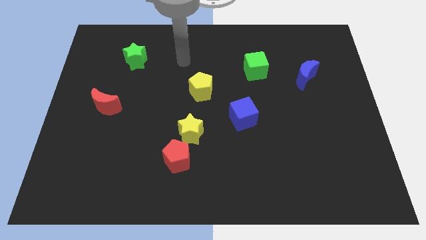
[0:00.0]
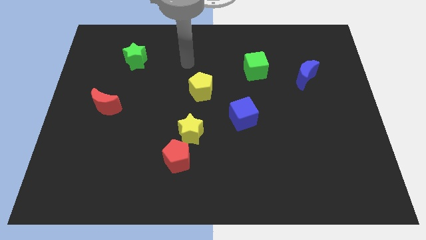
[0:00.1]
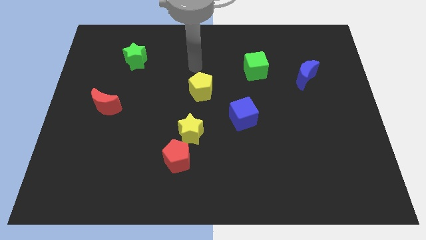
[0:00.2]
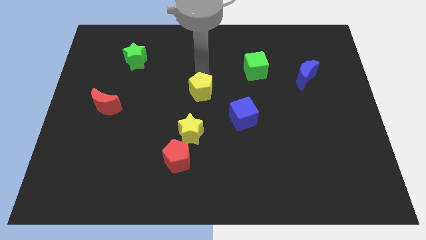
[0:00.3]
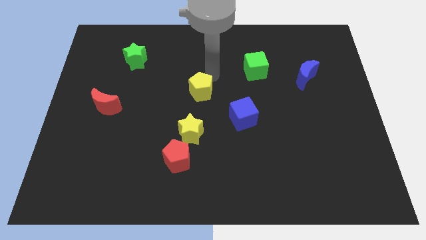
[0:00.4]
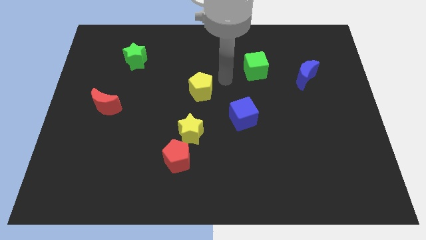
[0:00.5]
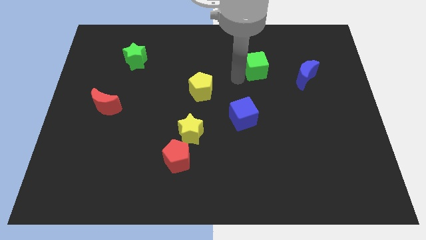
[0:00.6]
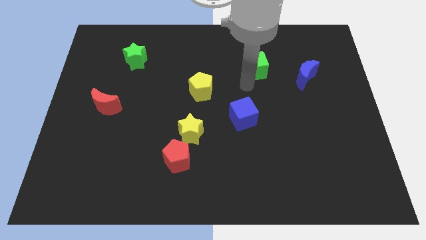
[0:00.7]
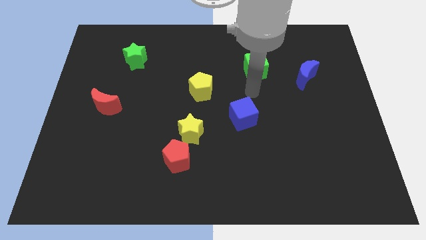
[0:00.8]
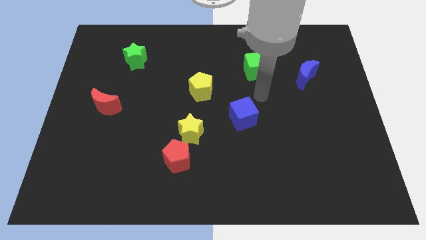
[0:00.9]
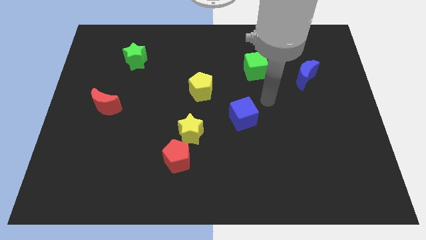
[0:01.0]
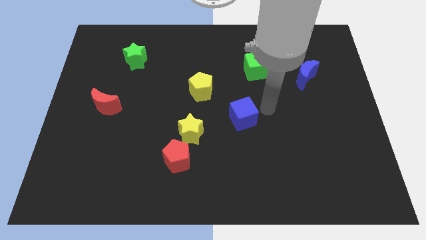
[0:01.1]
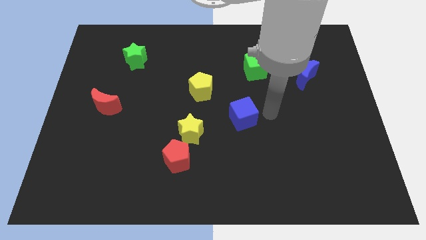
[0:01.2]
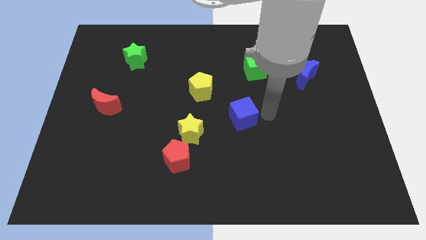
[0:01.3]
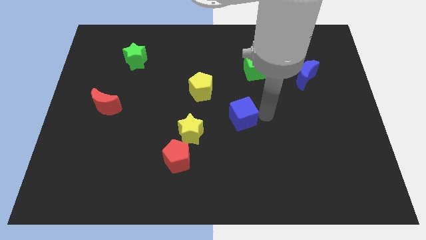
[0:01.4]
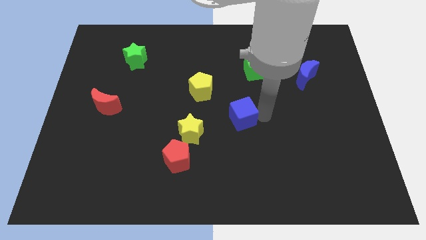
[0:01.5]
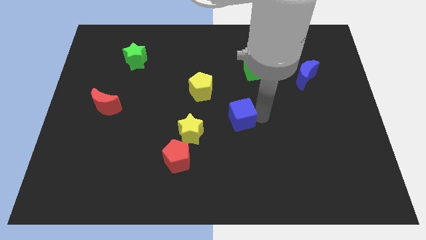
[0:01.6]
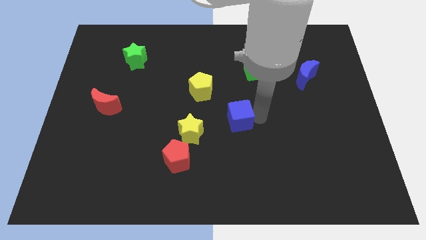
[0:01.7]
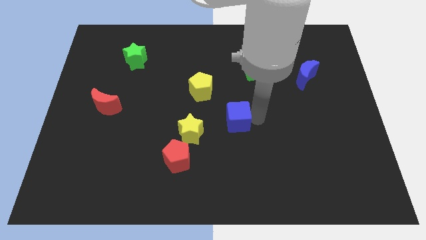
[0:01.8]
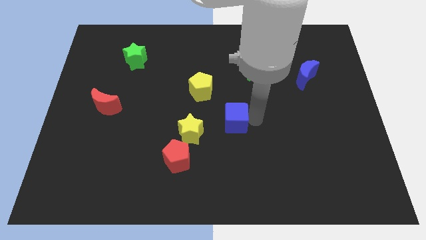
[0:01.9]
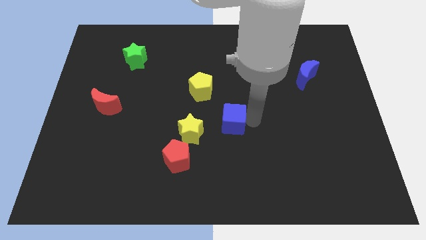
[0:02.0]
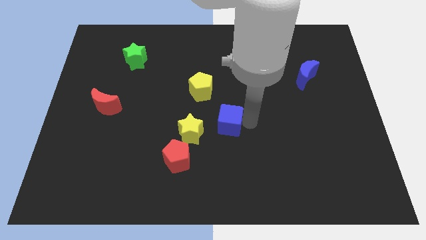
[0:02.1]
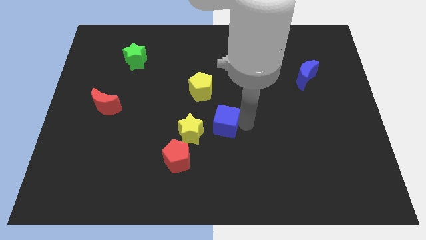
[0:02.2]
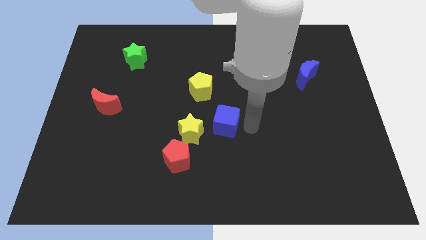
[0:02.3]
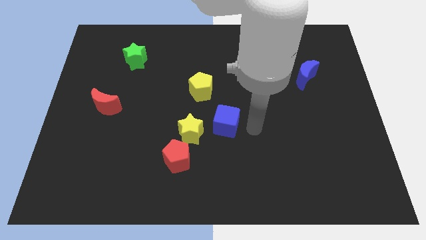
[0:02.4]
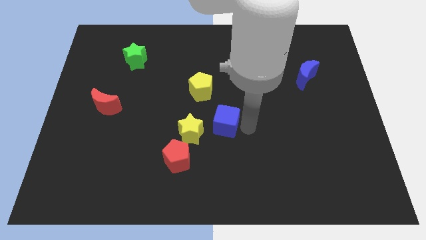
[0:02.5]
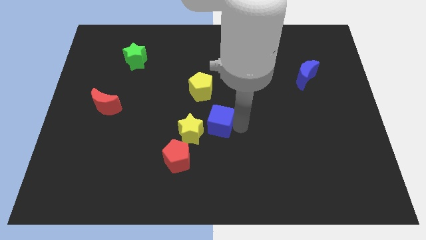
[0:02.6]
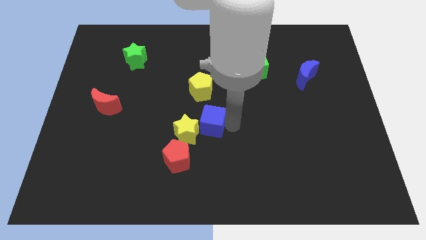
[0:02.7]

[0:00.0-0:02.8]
push the blue cube left slightly

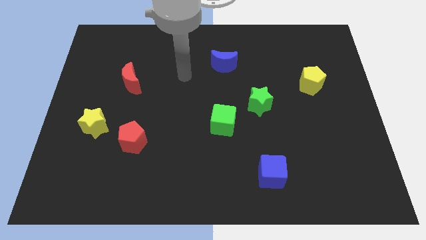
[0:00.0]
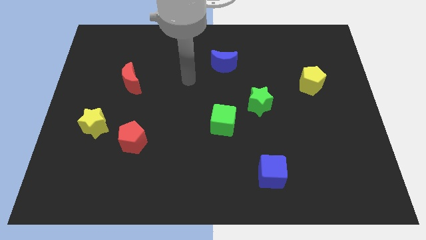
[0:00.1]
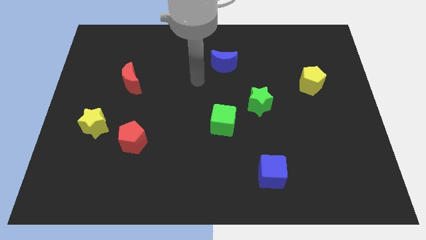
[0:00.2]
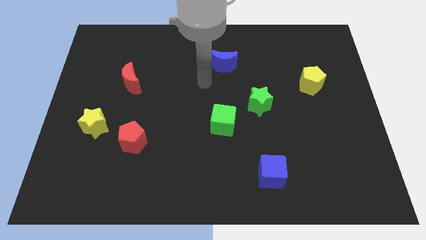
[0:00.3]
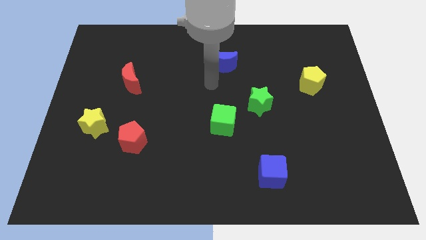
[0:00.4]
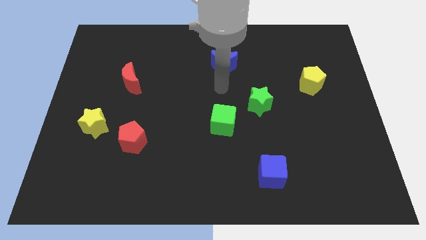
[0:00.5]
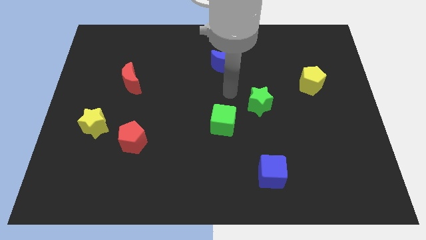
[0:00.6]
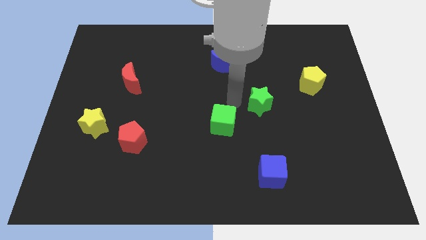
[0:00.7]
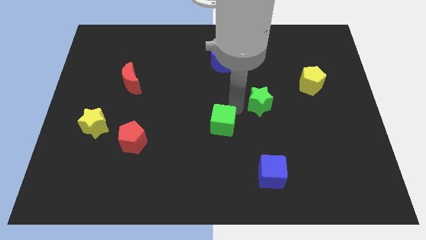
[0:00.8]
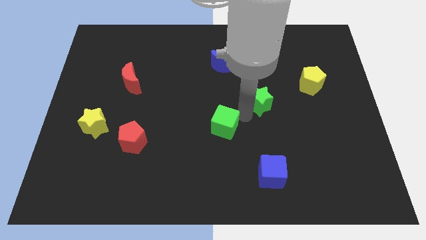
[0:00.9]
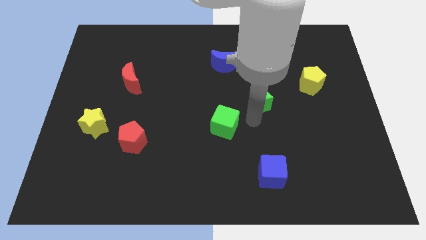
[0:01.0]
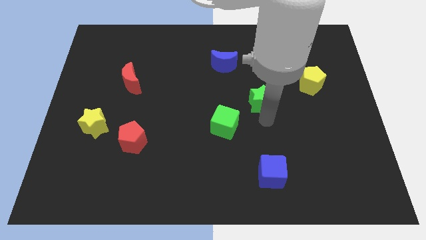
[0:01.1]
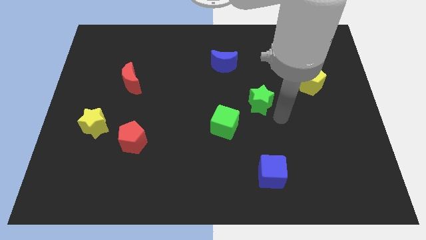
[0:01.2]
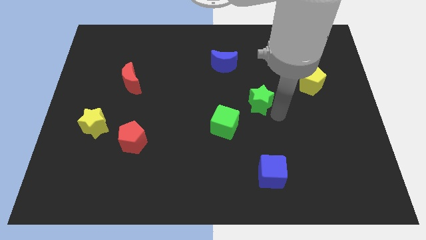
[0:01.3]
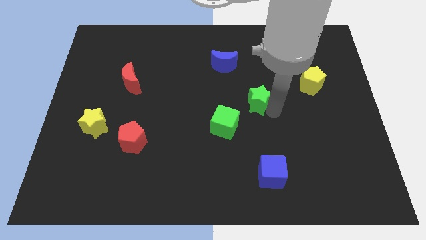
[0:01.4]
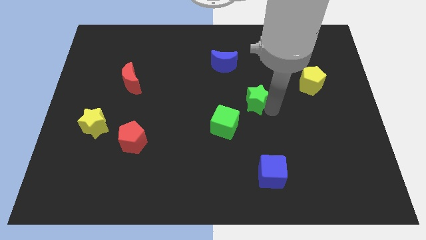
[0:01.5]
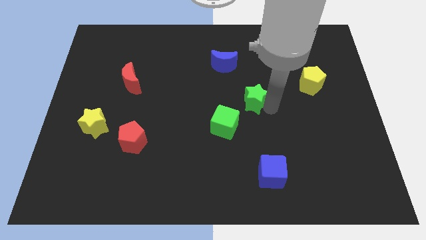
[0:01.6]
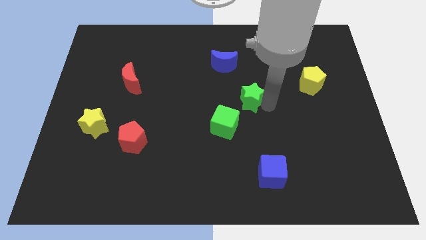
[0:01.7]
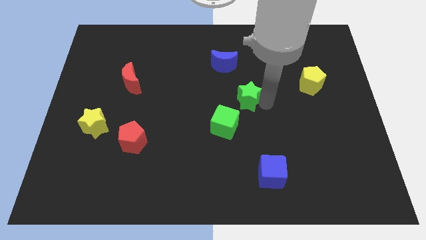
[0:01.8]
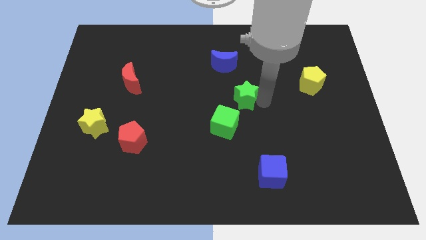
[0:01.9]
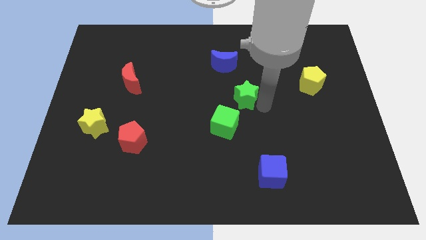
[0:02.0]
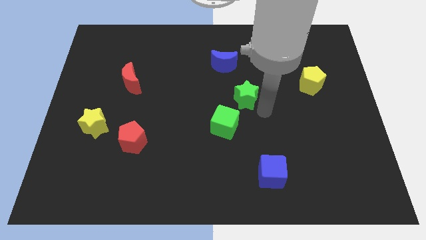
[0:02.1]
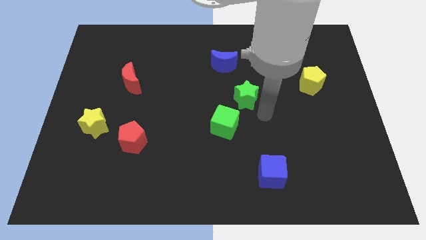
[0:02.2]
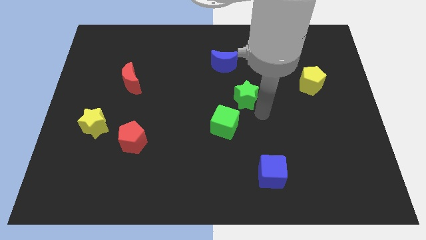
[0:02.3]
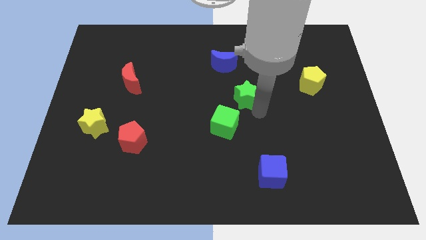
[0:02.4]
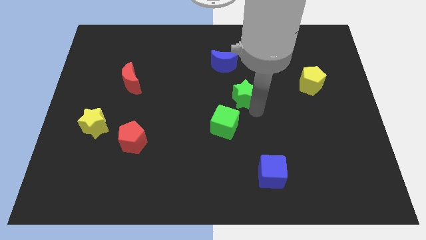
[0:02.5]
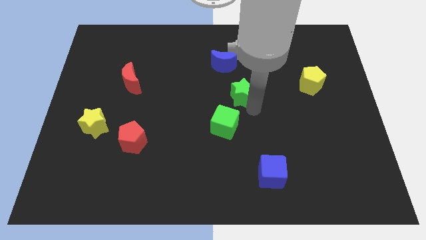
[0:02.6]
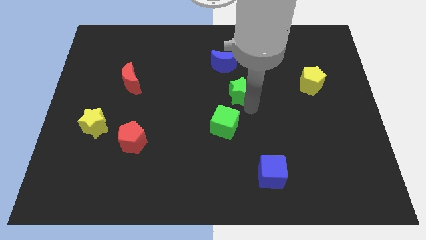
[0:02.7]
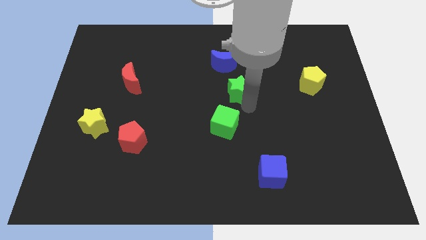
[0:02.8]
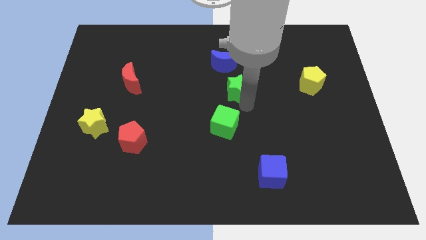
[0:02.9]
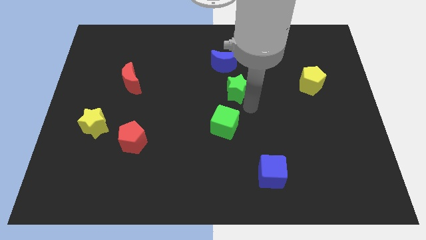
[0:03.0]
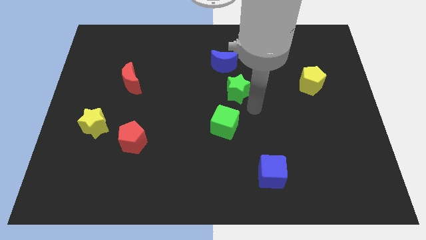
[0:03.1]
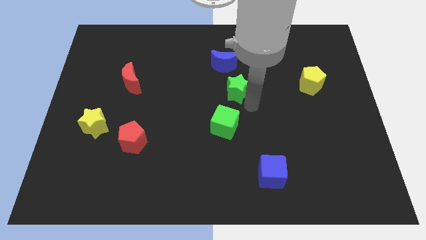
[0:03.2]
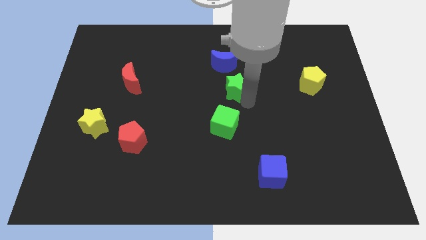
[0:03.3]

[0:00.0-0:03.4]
move the green star a little bit diagonally upwards and left

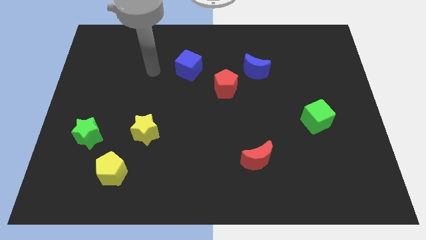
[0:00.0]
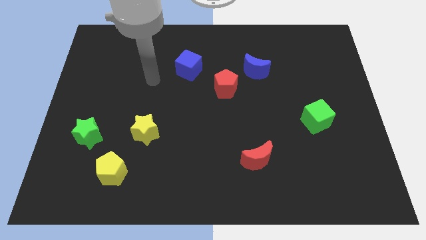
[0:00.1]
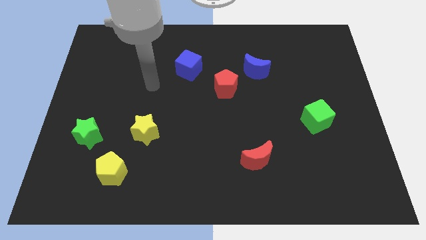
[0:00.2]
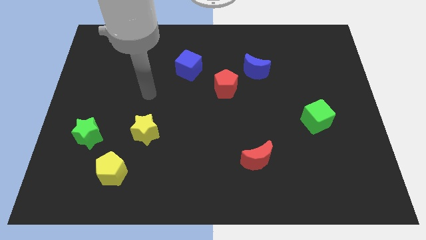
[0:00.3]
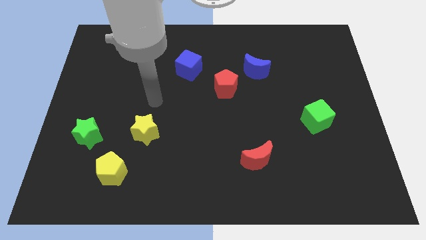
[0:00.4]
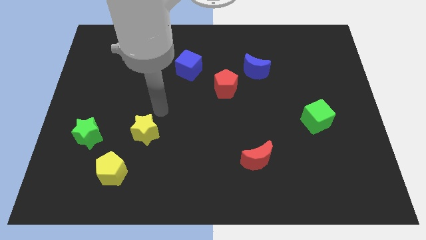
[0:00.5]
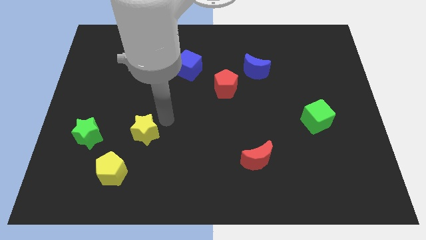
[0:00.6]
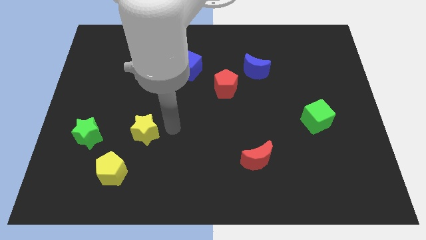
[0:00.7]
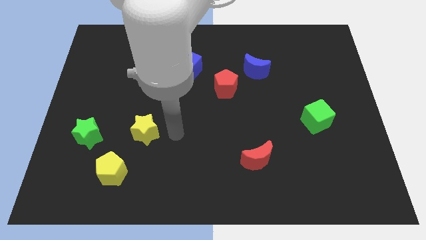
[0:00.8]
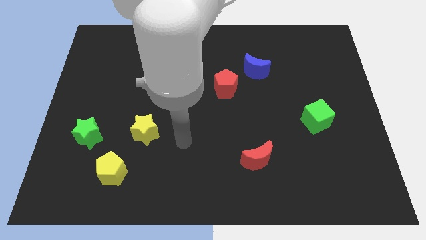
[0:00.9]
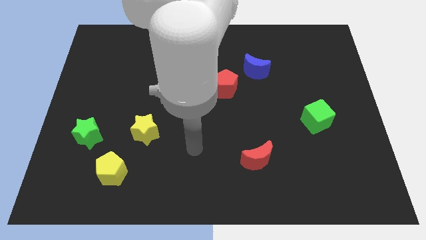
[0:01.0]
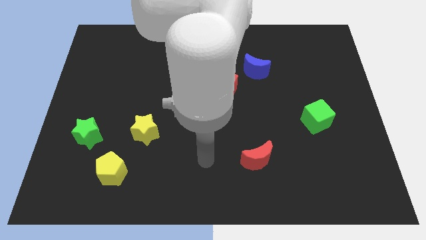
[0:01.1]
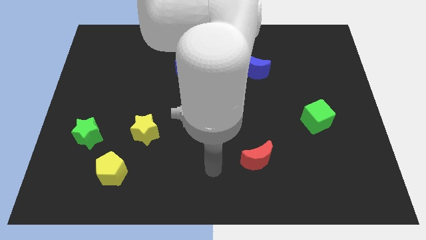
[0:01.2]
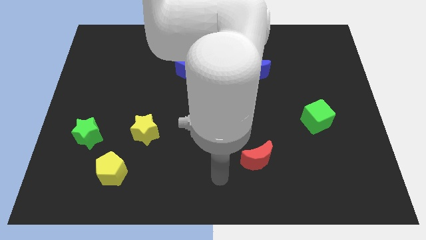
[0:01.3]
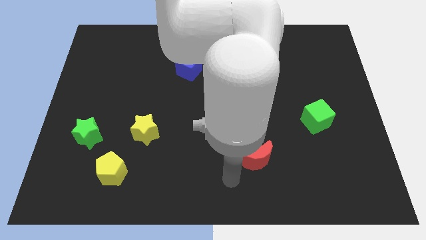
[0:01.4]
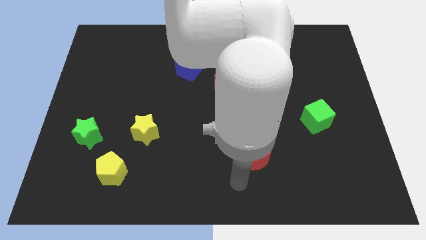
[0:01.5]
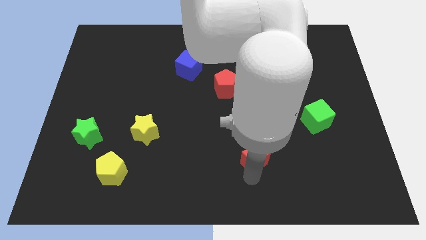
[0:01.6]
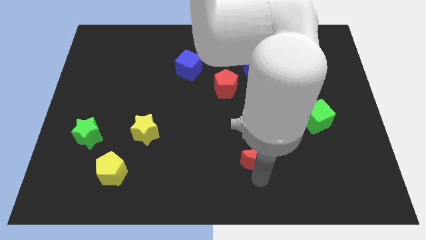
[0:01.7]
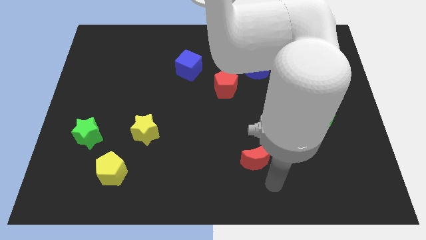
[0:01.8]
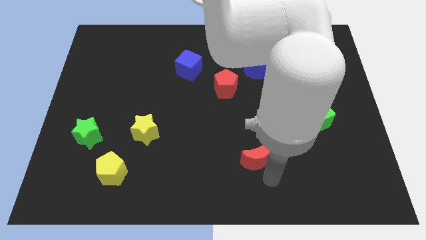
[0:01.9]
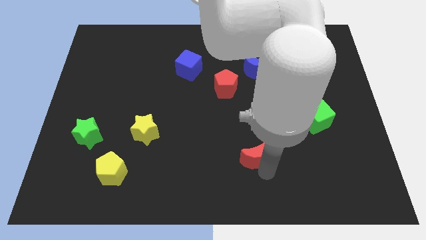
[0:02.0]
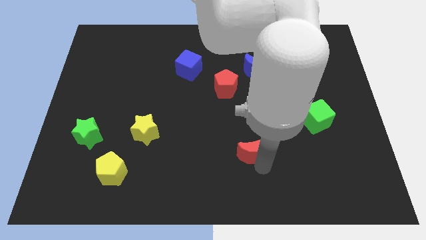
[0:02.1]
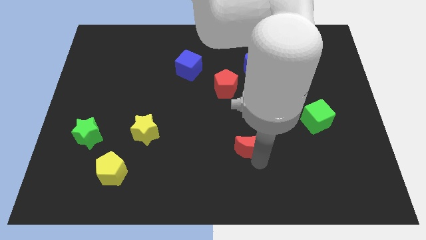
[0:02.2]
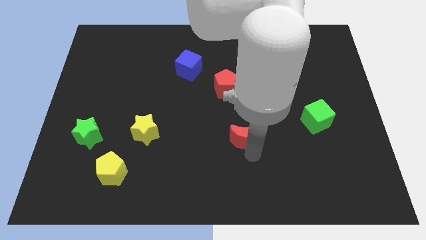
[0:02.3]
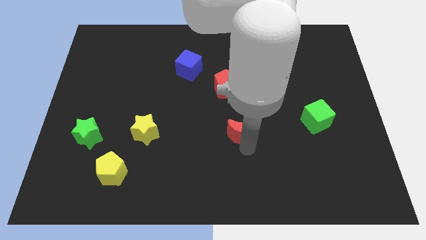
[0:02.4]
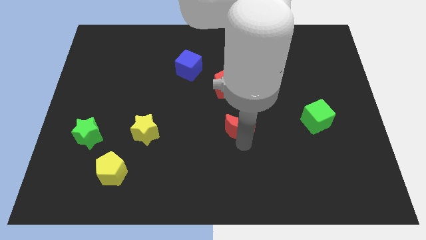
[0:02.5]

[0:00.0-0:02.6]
move the red moon a little bit upwards
